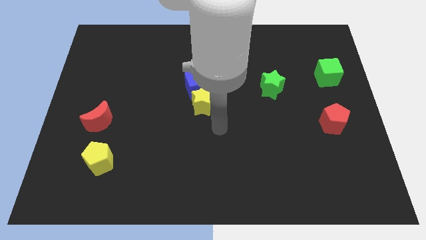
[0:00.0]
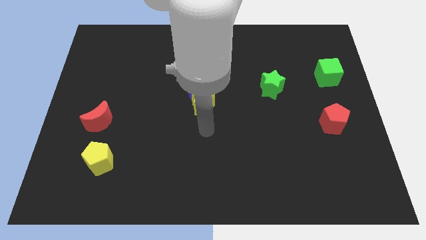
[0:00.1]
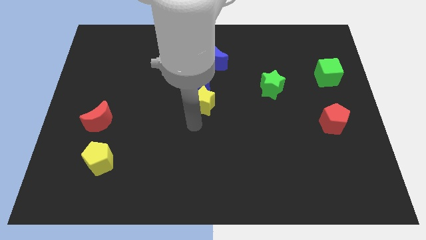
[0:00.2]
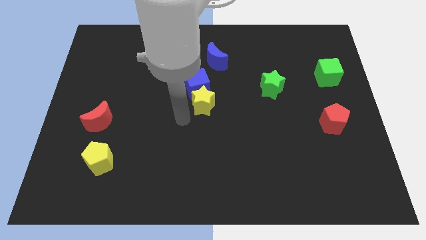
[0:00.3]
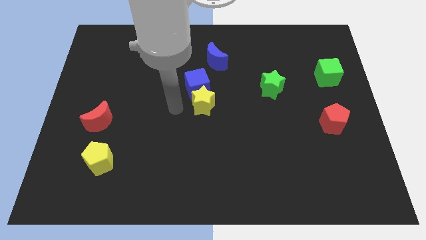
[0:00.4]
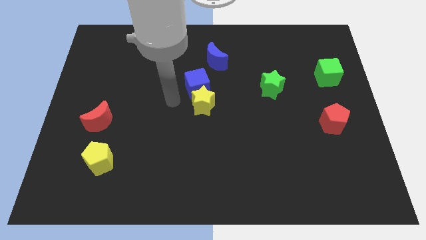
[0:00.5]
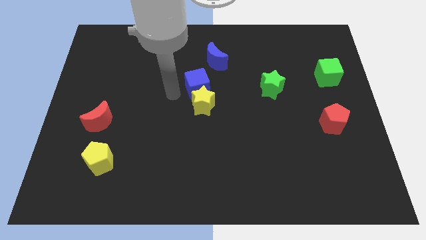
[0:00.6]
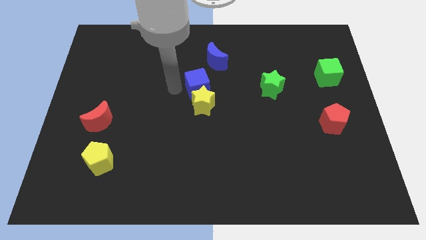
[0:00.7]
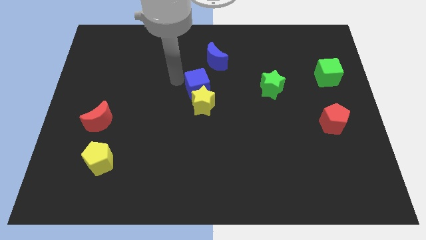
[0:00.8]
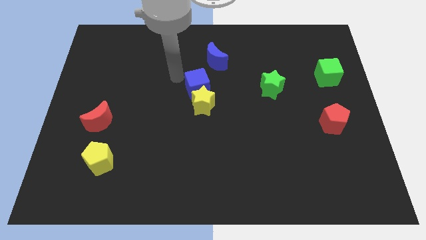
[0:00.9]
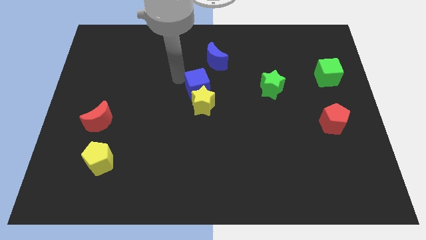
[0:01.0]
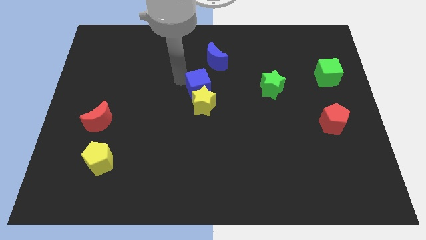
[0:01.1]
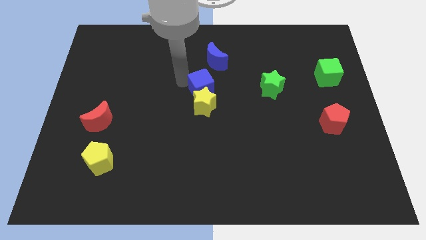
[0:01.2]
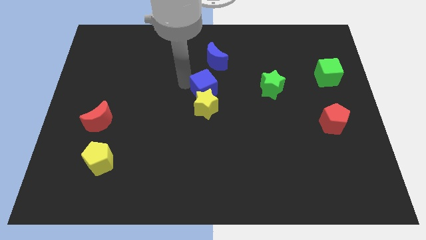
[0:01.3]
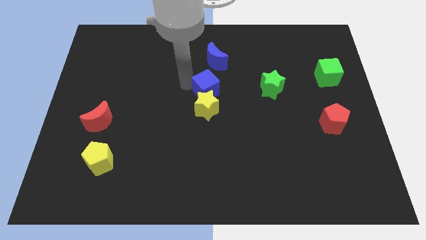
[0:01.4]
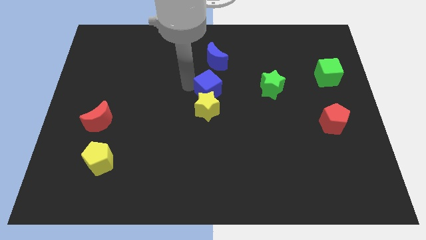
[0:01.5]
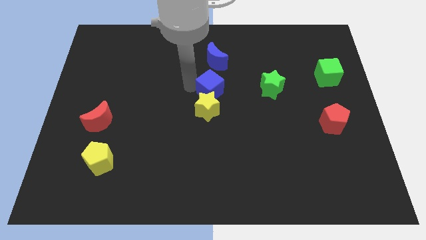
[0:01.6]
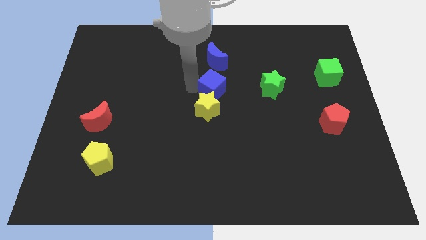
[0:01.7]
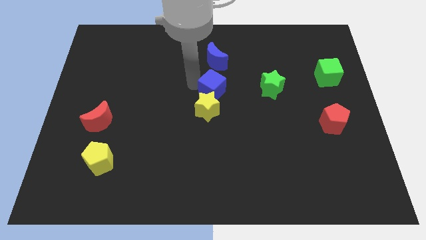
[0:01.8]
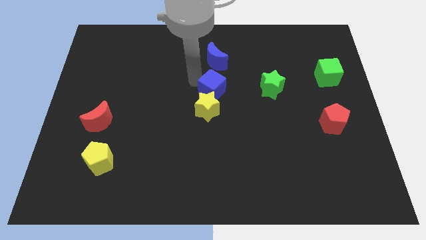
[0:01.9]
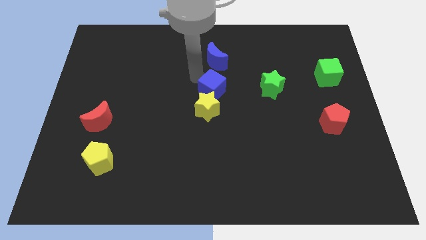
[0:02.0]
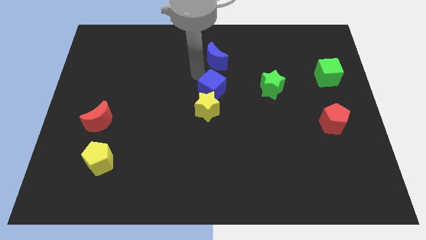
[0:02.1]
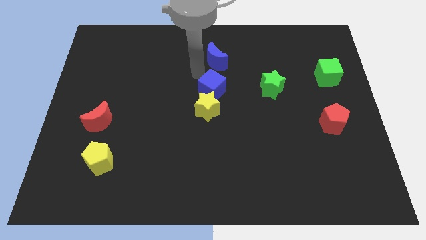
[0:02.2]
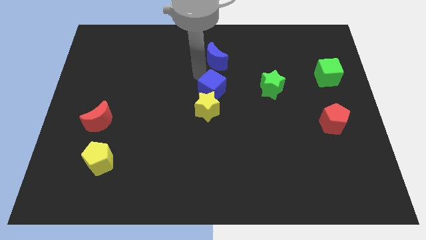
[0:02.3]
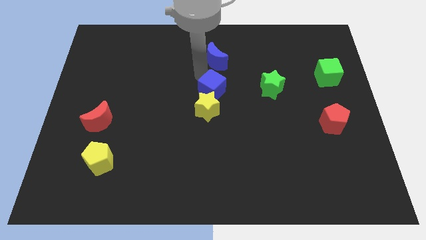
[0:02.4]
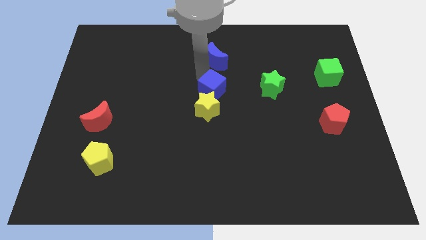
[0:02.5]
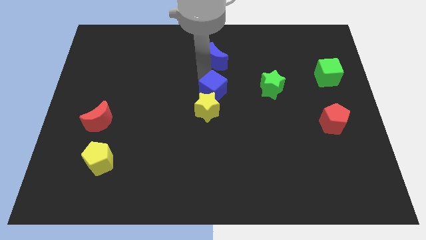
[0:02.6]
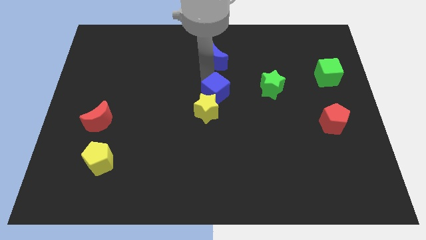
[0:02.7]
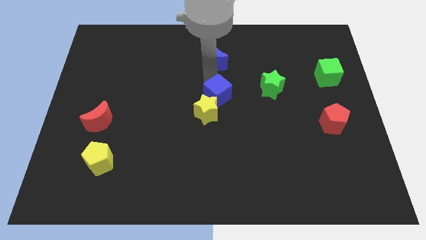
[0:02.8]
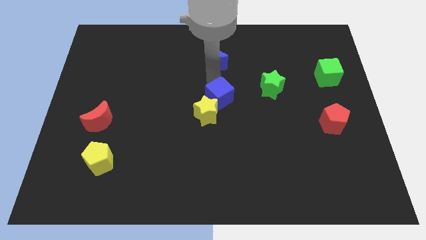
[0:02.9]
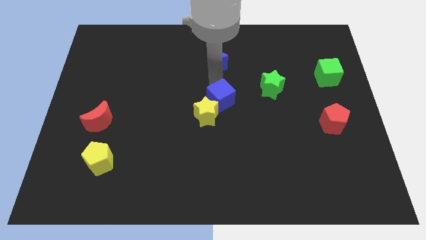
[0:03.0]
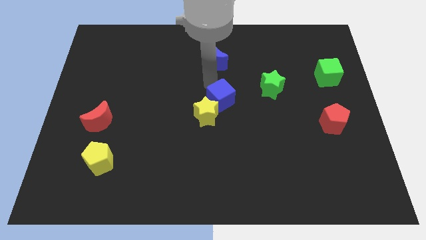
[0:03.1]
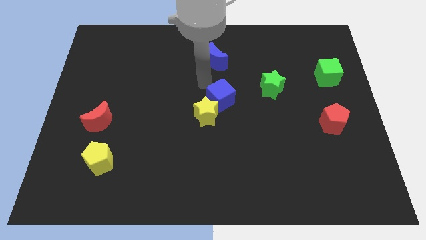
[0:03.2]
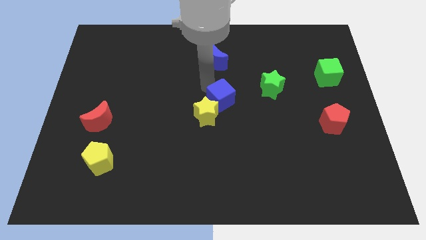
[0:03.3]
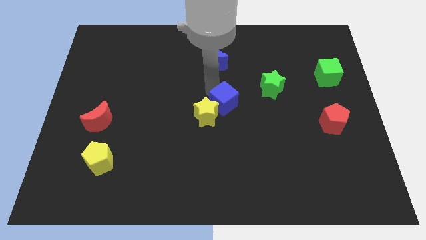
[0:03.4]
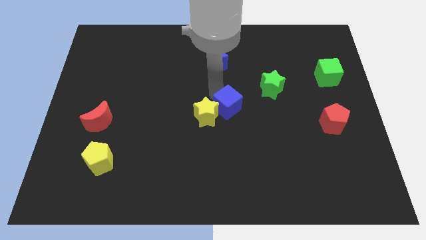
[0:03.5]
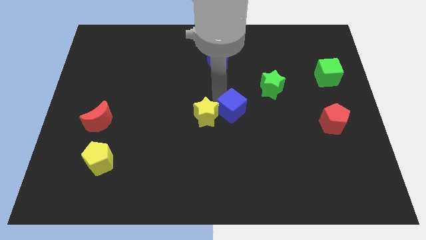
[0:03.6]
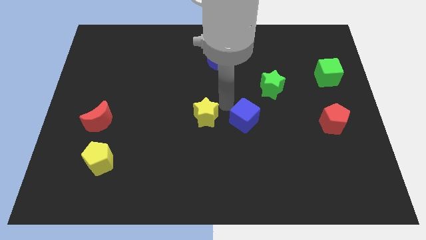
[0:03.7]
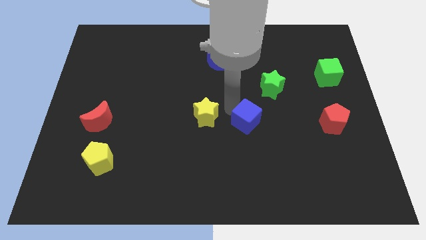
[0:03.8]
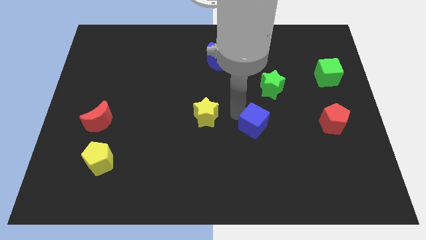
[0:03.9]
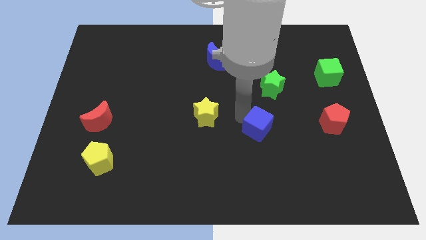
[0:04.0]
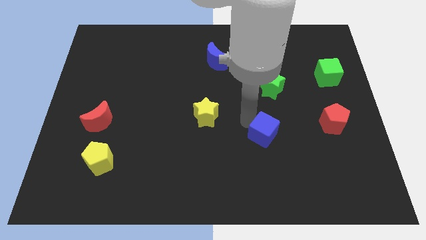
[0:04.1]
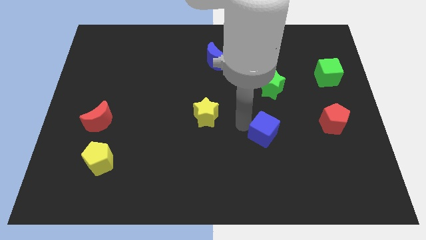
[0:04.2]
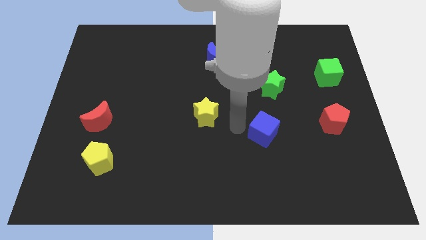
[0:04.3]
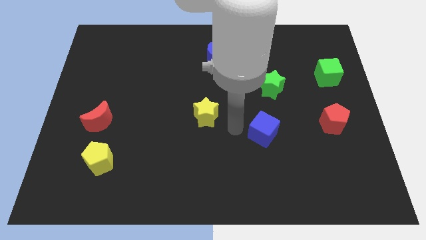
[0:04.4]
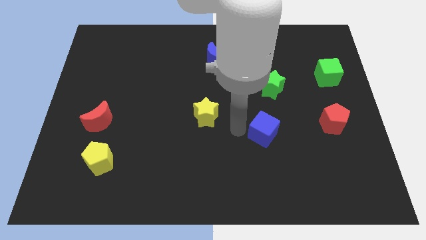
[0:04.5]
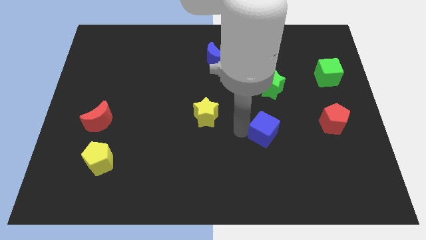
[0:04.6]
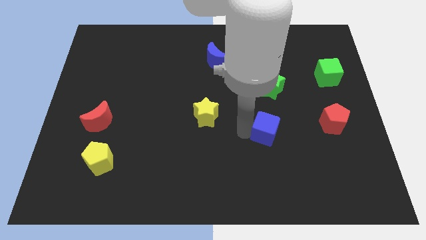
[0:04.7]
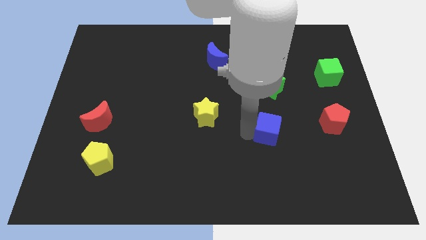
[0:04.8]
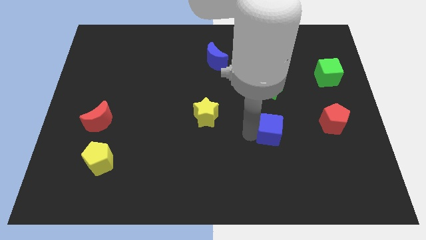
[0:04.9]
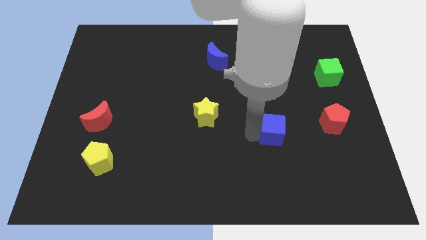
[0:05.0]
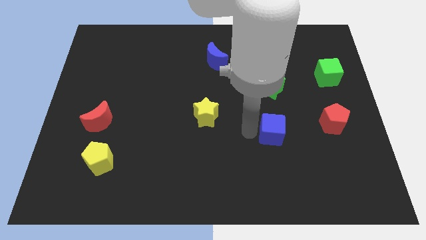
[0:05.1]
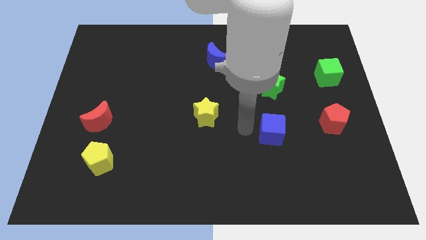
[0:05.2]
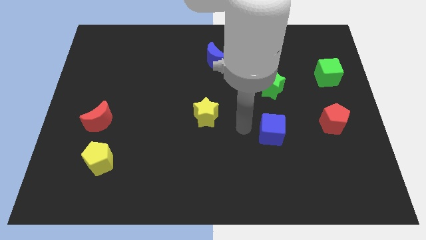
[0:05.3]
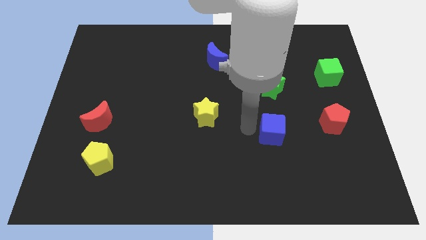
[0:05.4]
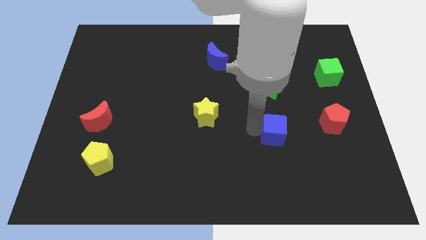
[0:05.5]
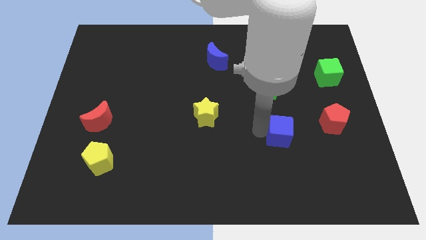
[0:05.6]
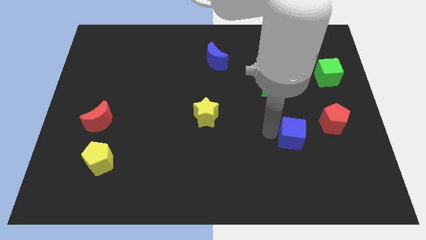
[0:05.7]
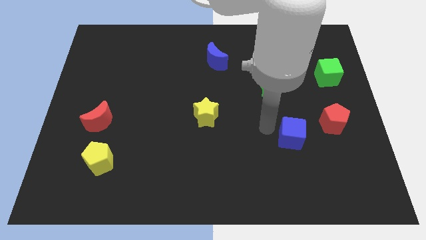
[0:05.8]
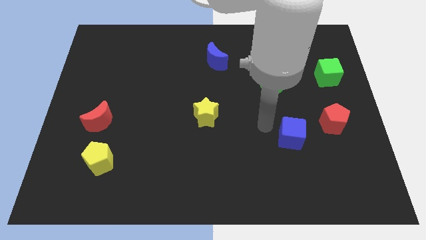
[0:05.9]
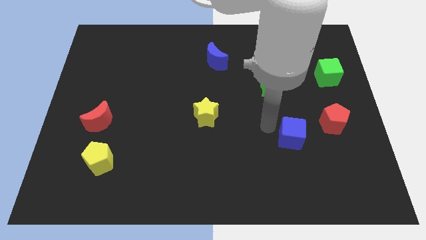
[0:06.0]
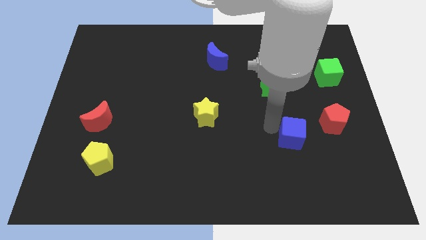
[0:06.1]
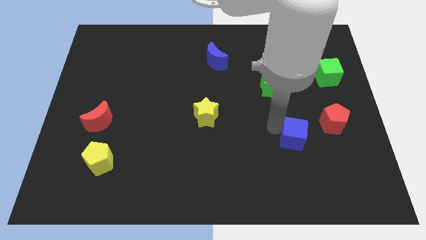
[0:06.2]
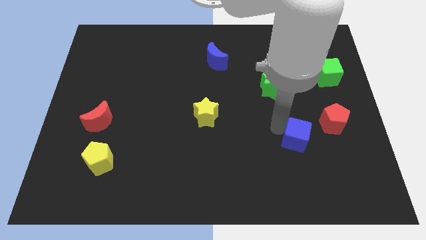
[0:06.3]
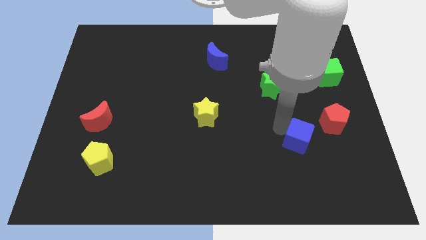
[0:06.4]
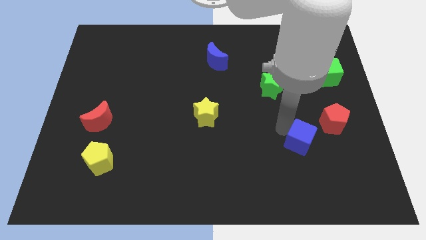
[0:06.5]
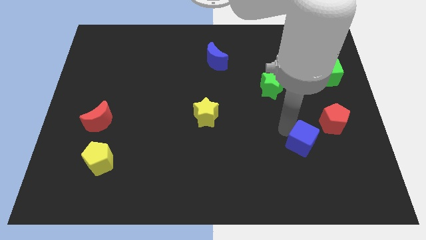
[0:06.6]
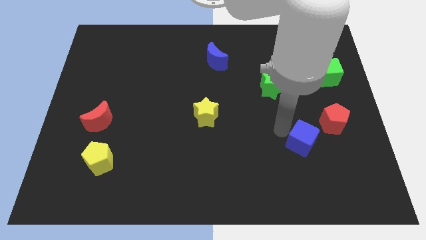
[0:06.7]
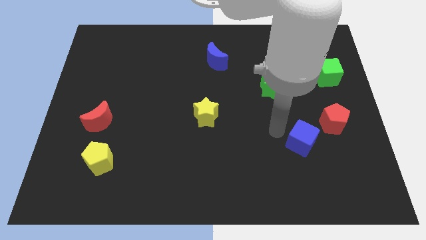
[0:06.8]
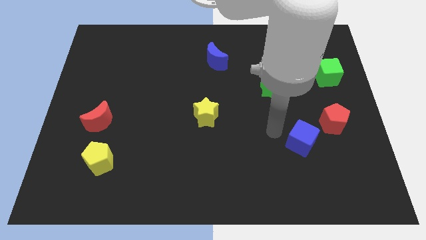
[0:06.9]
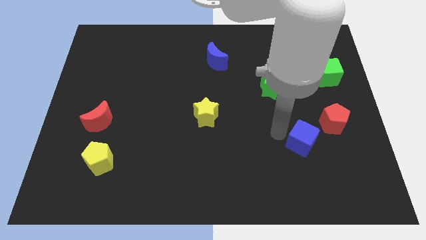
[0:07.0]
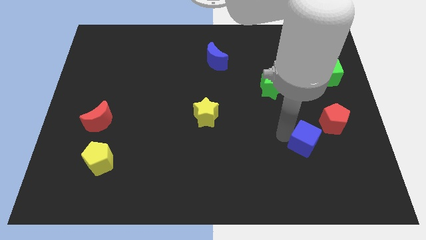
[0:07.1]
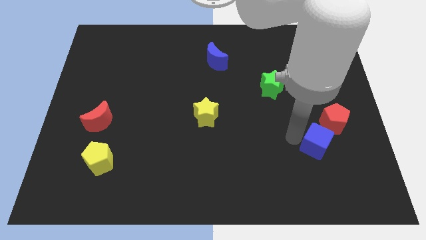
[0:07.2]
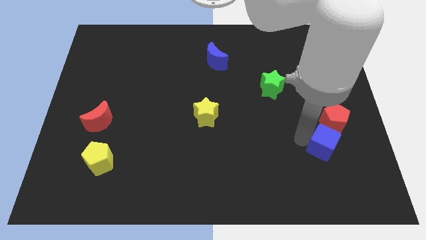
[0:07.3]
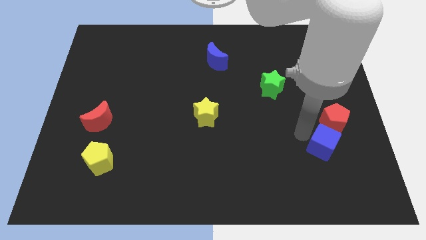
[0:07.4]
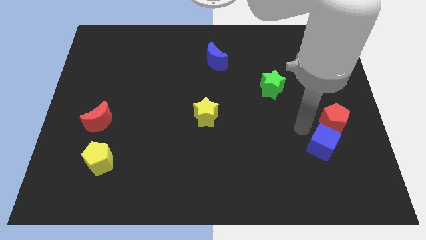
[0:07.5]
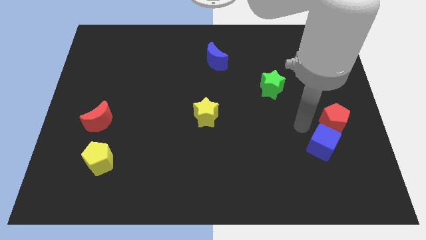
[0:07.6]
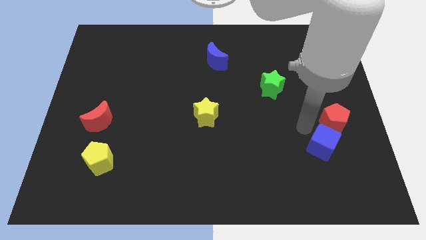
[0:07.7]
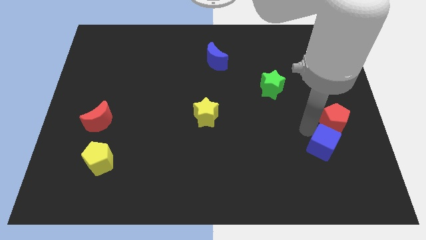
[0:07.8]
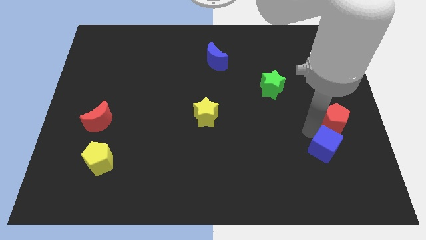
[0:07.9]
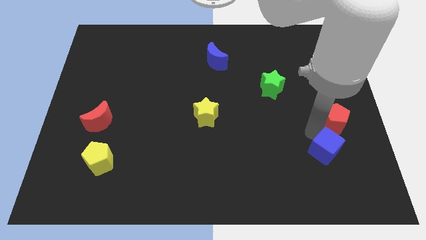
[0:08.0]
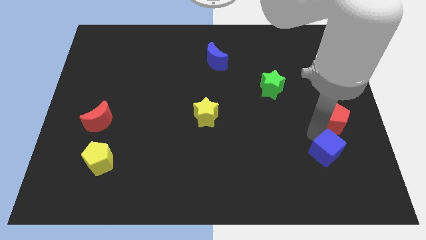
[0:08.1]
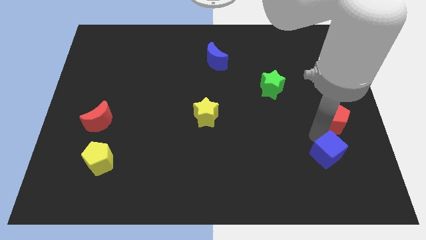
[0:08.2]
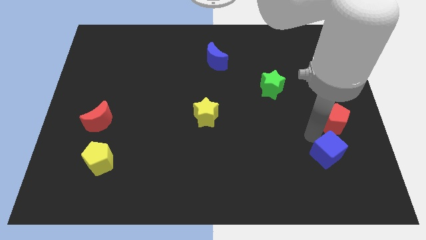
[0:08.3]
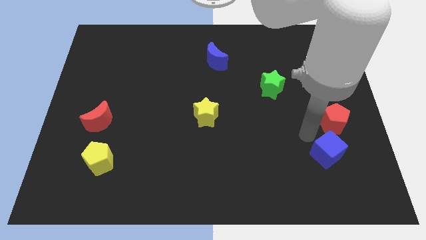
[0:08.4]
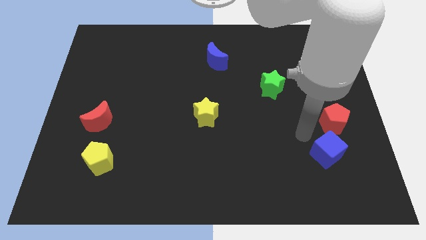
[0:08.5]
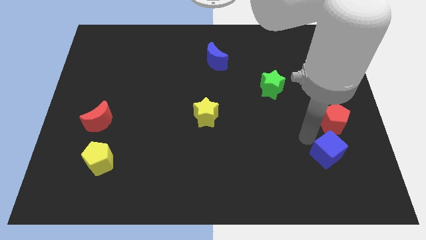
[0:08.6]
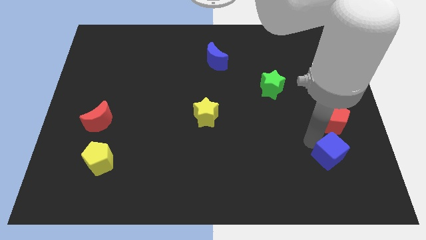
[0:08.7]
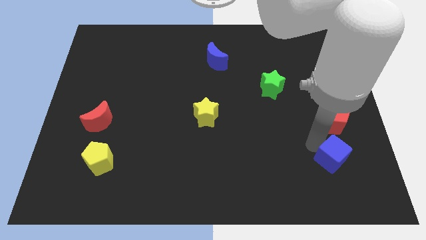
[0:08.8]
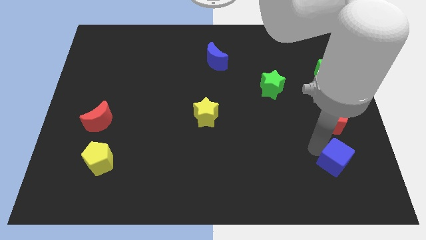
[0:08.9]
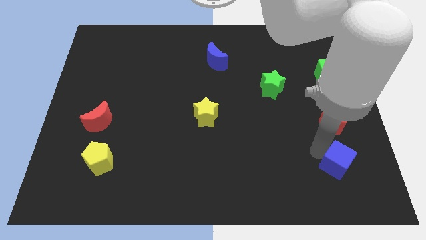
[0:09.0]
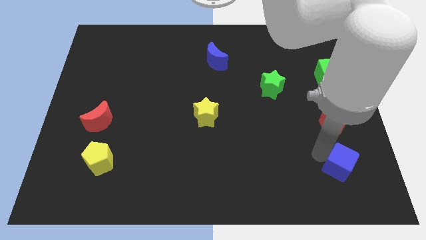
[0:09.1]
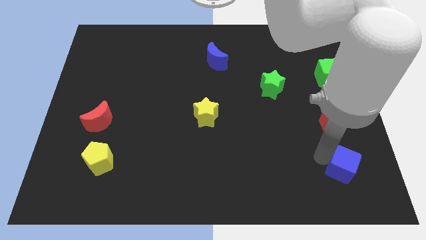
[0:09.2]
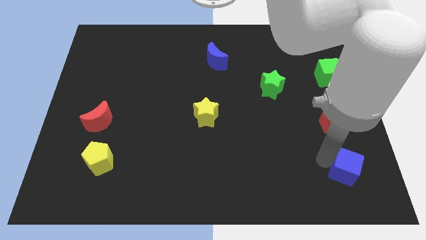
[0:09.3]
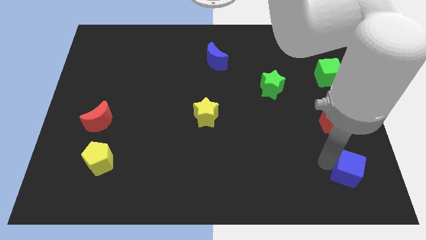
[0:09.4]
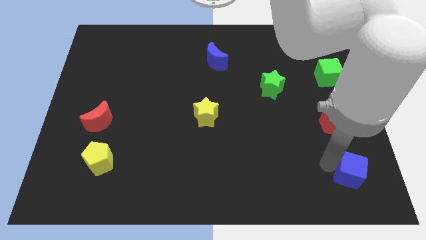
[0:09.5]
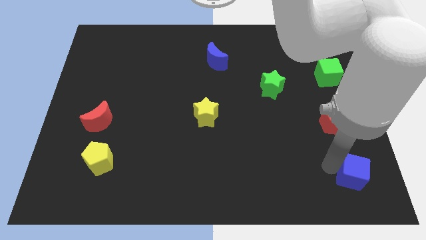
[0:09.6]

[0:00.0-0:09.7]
move the blue cube to the bottom right corner
